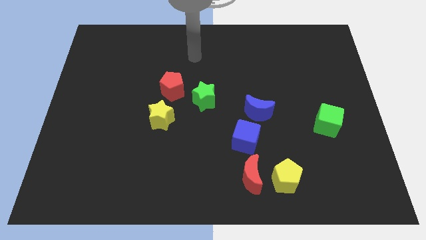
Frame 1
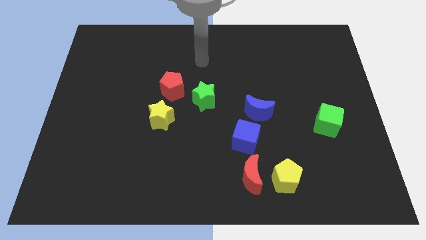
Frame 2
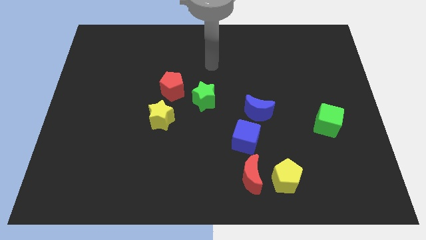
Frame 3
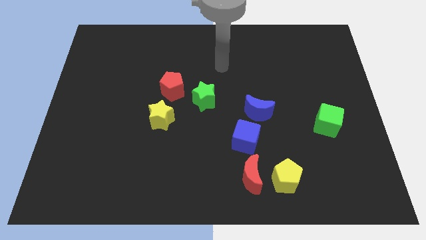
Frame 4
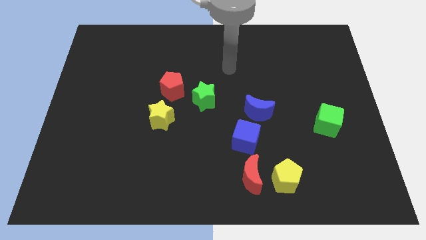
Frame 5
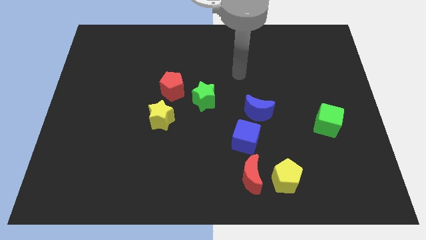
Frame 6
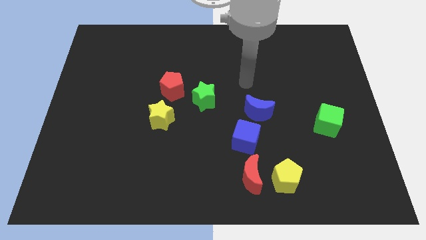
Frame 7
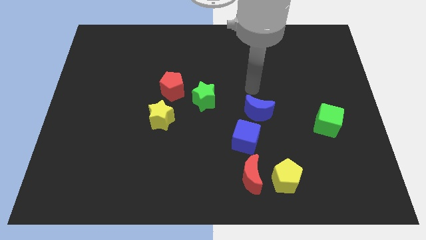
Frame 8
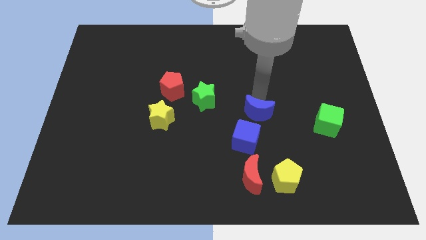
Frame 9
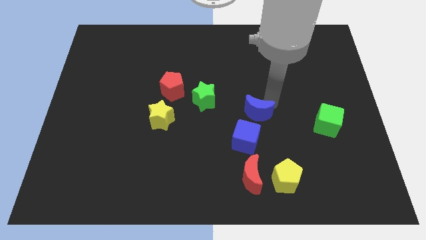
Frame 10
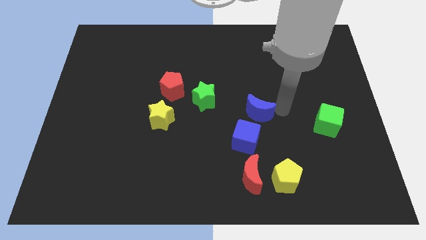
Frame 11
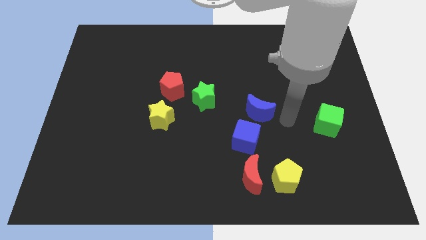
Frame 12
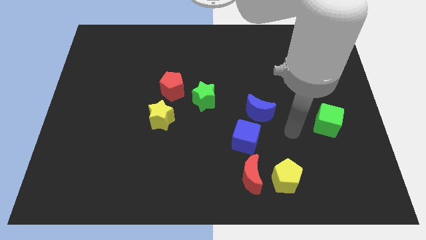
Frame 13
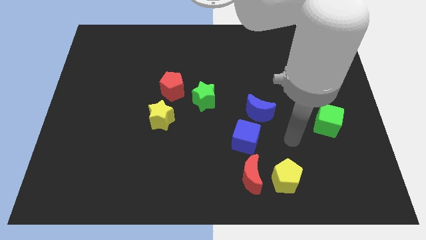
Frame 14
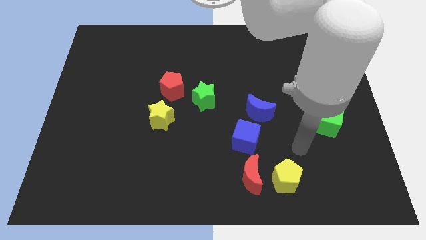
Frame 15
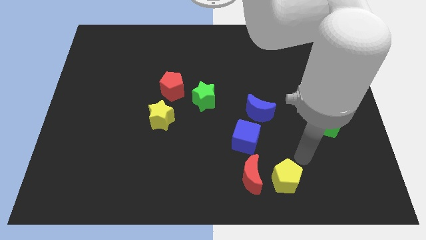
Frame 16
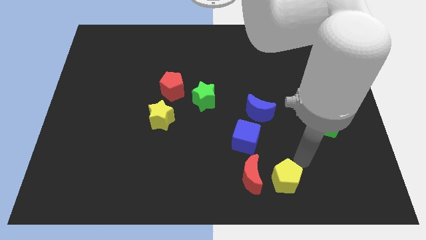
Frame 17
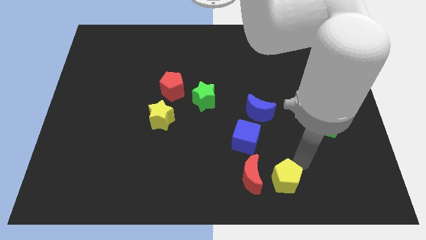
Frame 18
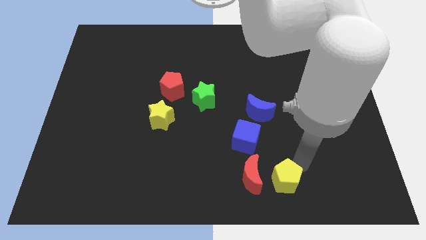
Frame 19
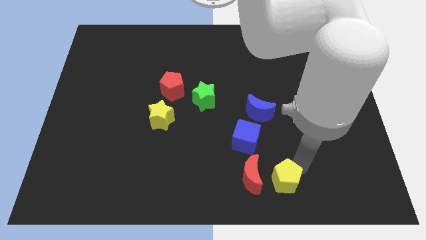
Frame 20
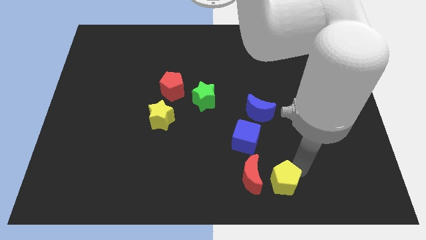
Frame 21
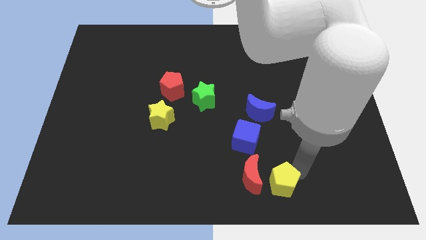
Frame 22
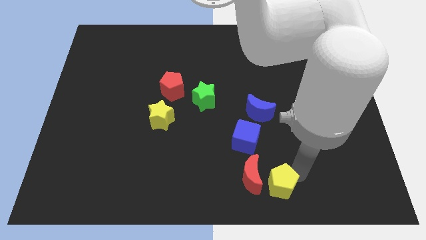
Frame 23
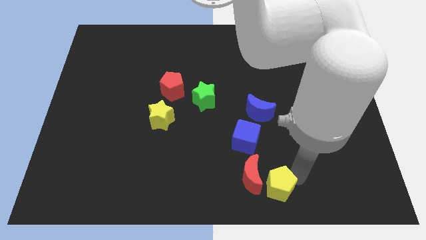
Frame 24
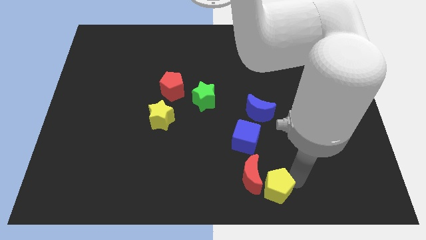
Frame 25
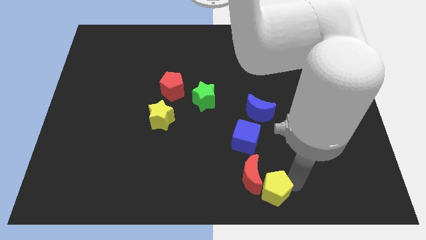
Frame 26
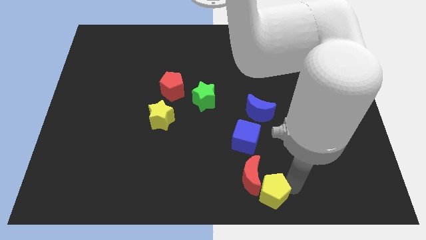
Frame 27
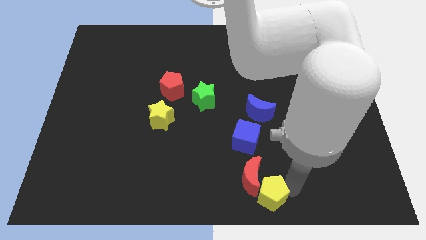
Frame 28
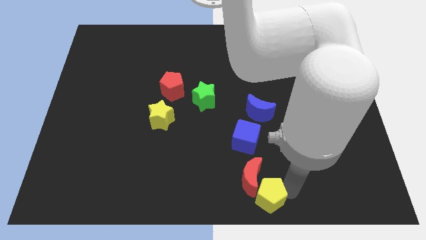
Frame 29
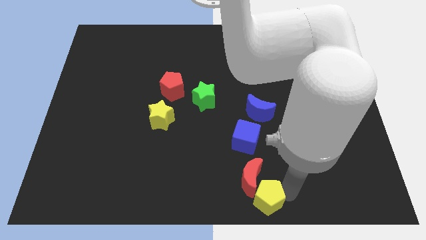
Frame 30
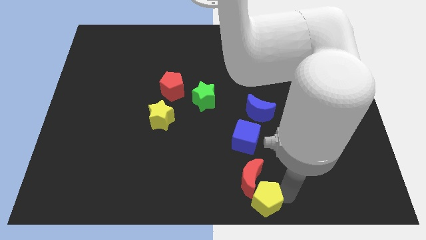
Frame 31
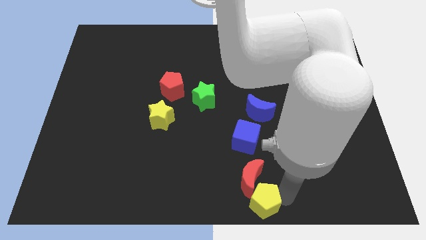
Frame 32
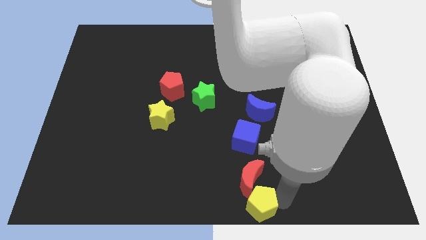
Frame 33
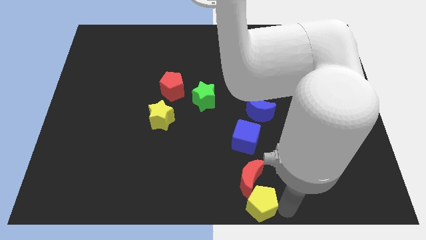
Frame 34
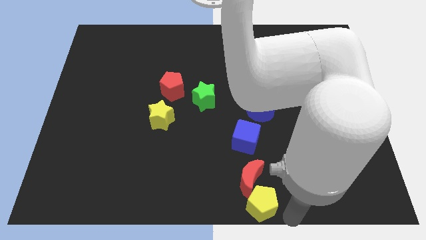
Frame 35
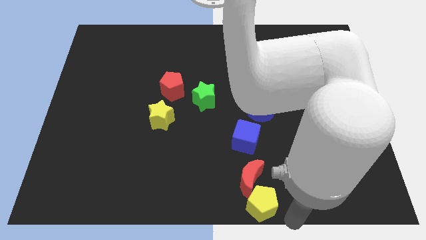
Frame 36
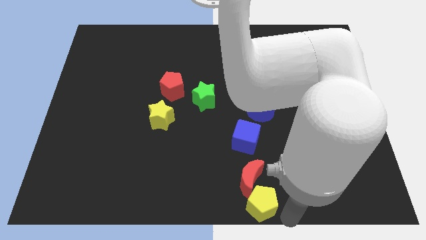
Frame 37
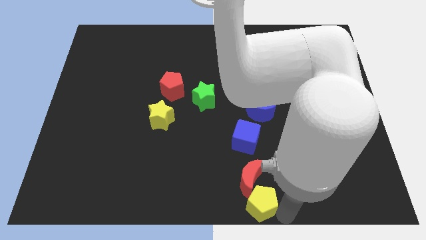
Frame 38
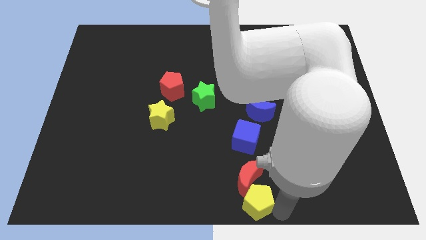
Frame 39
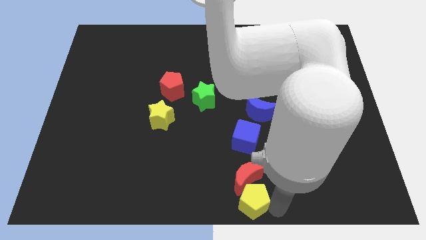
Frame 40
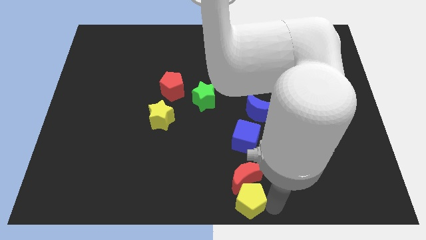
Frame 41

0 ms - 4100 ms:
move the yellow pentagon a bit left

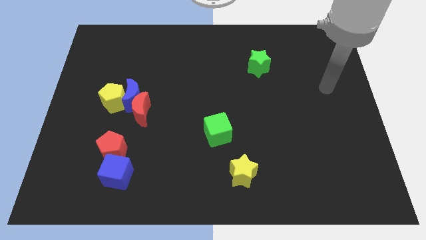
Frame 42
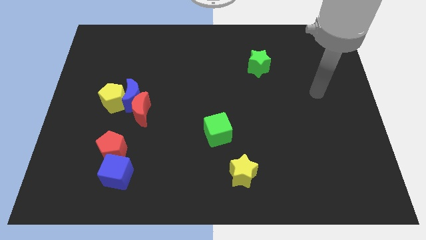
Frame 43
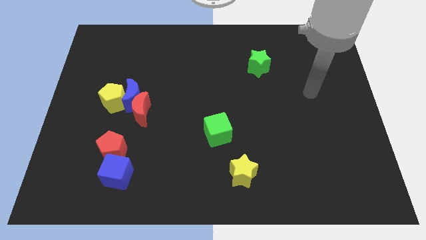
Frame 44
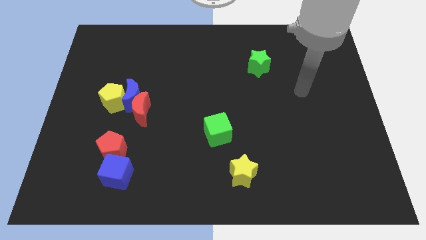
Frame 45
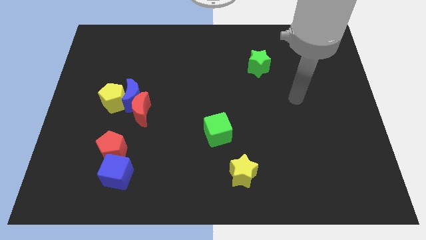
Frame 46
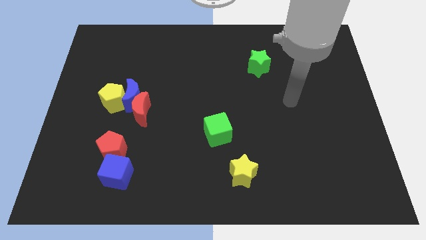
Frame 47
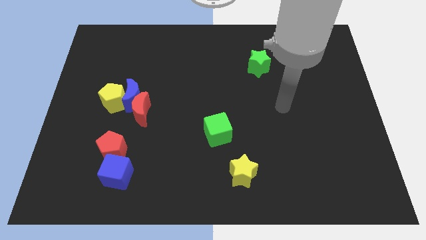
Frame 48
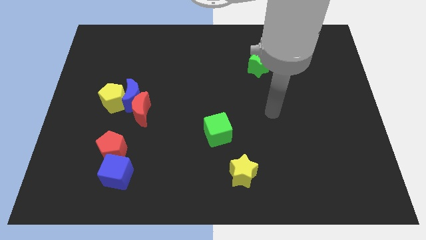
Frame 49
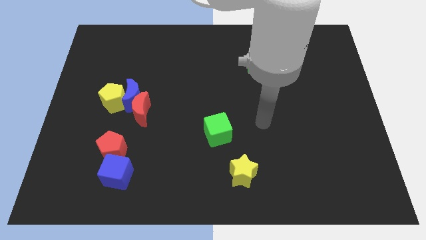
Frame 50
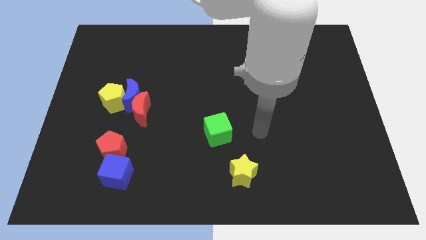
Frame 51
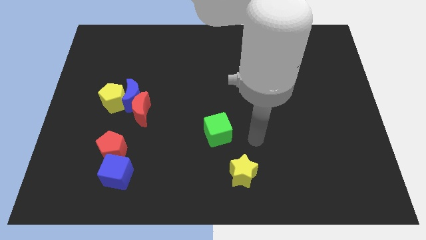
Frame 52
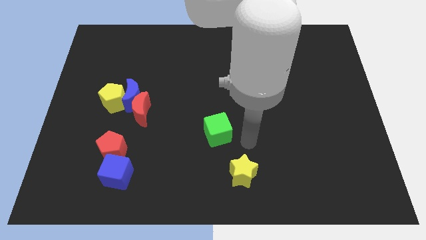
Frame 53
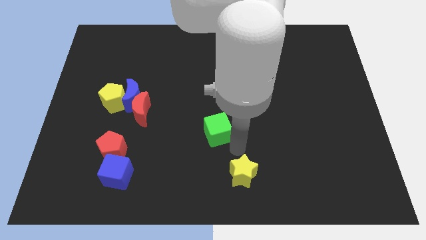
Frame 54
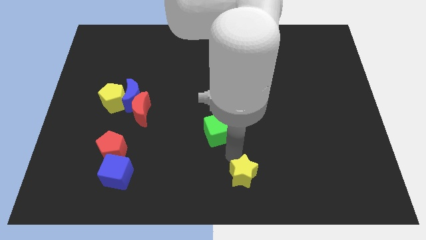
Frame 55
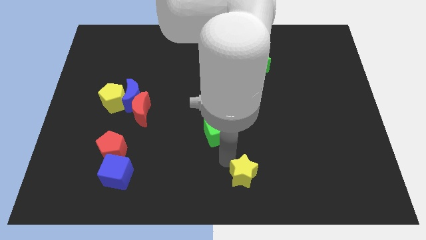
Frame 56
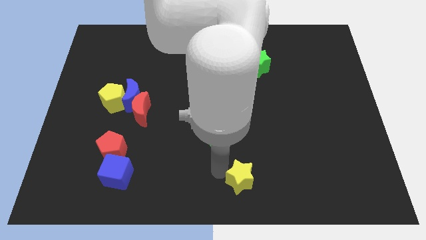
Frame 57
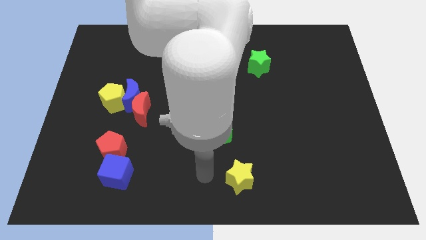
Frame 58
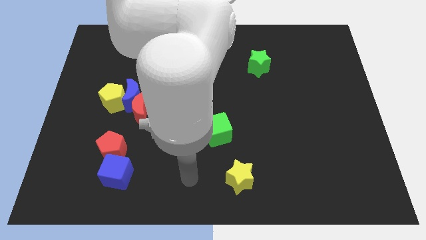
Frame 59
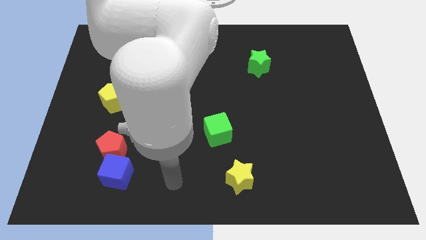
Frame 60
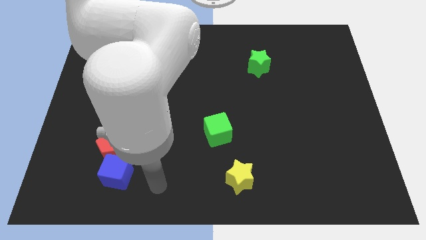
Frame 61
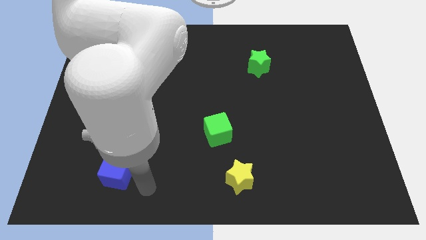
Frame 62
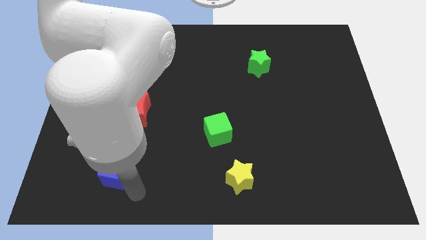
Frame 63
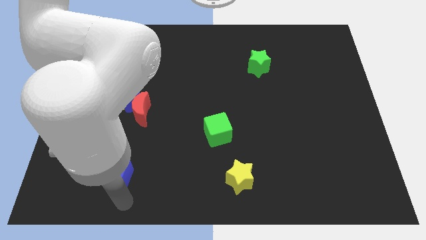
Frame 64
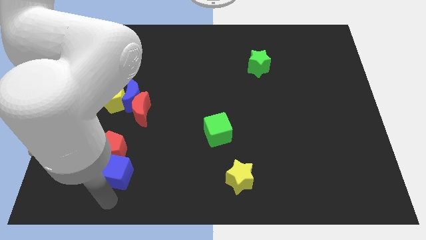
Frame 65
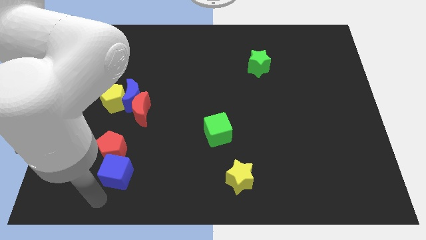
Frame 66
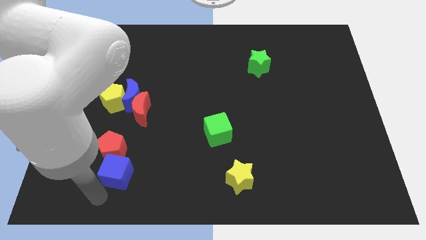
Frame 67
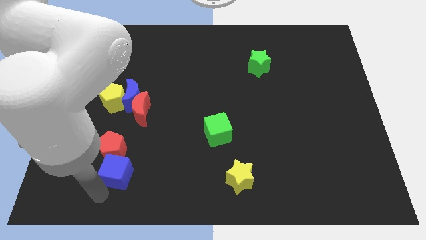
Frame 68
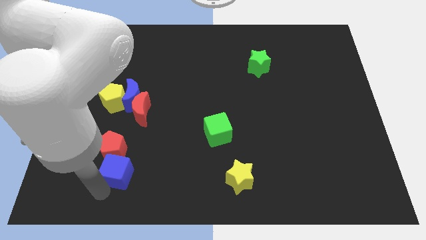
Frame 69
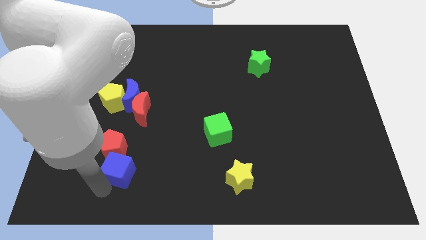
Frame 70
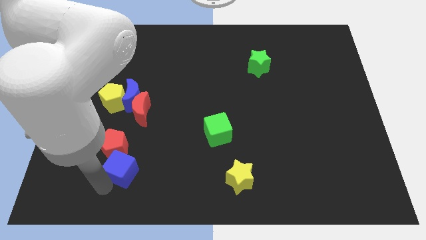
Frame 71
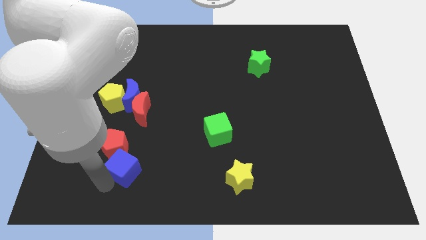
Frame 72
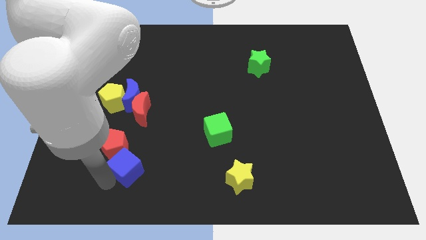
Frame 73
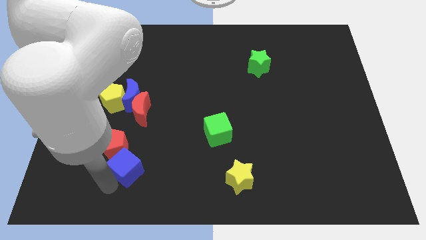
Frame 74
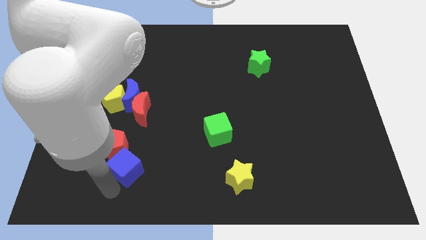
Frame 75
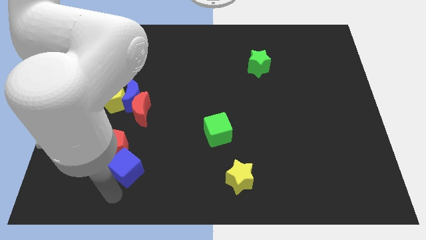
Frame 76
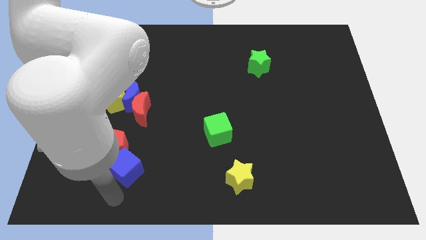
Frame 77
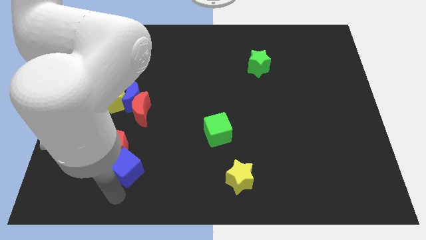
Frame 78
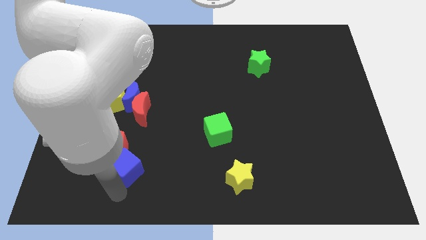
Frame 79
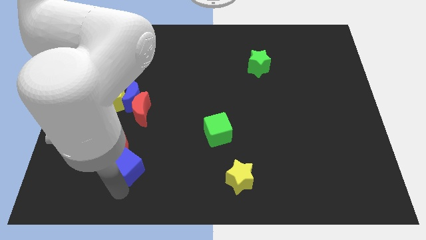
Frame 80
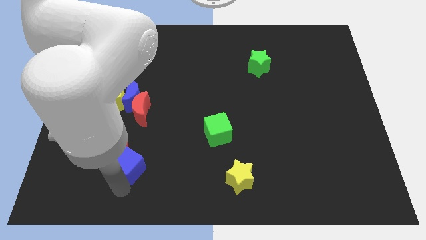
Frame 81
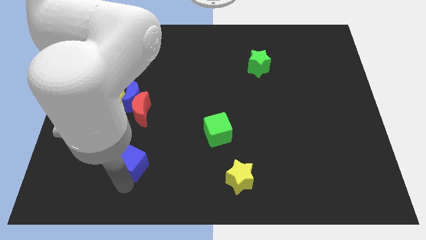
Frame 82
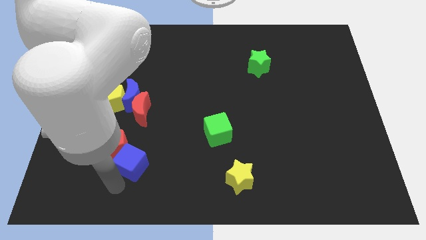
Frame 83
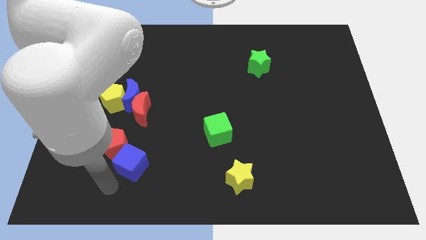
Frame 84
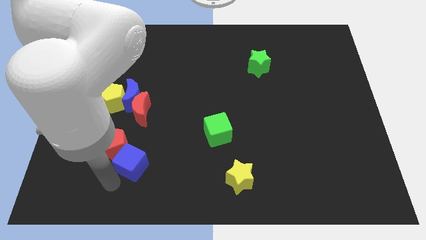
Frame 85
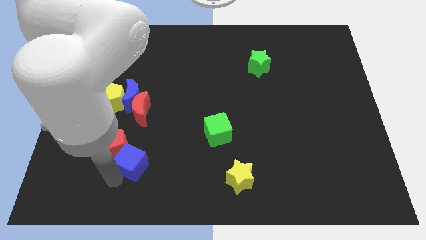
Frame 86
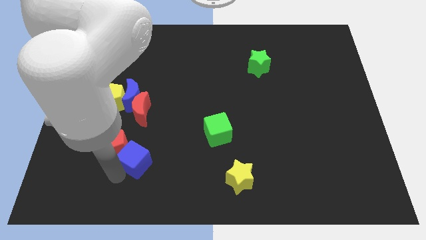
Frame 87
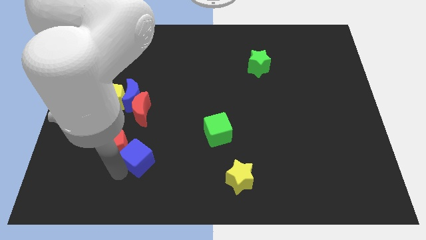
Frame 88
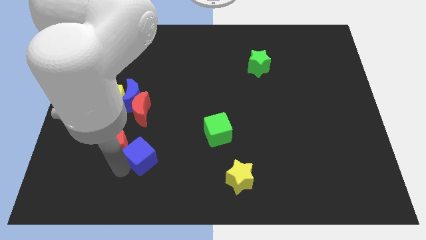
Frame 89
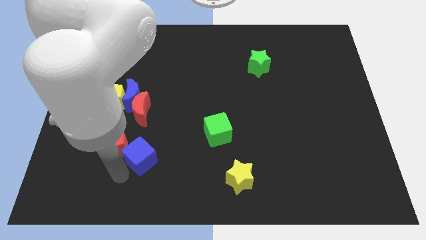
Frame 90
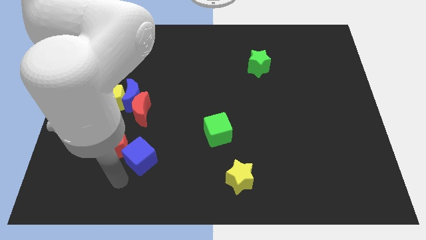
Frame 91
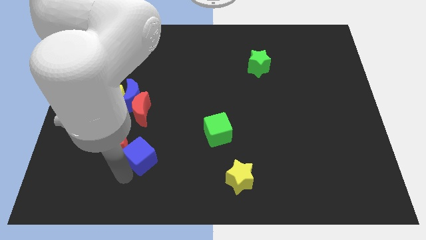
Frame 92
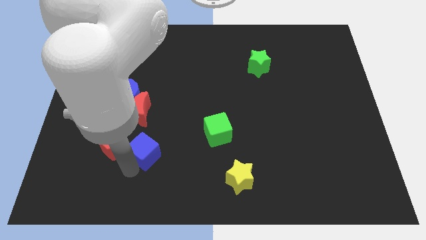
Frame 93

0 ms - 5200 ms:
slide the blue cube a little up and to the right
